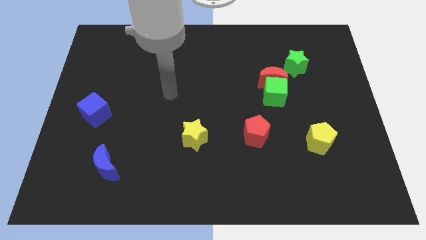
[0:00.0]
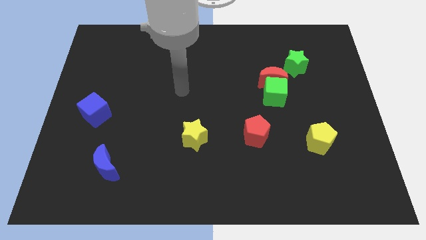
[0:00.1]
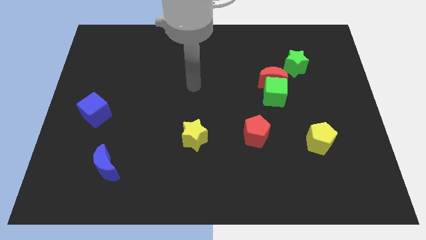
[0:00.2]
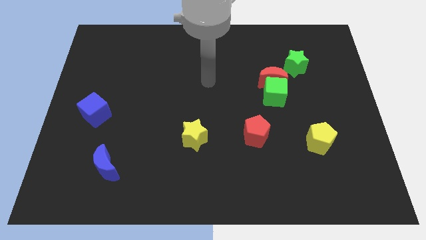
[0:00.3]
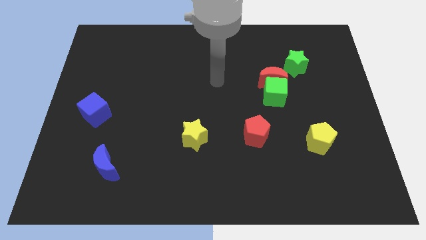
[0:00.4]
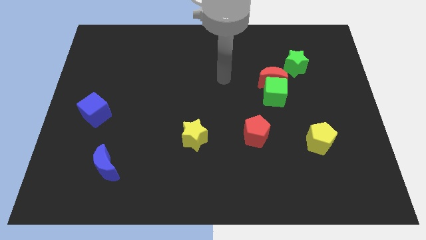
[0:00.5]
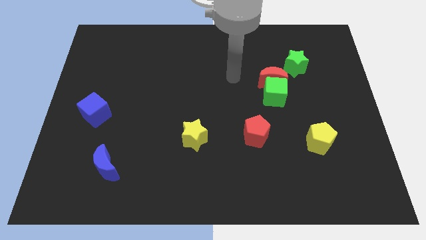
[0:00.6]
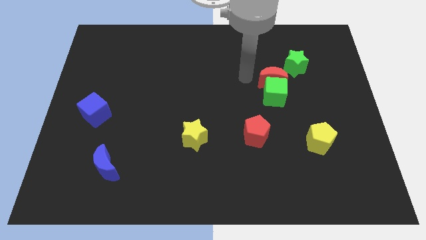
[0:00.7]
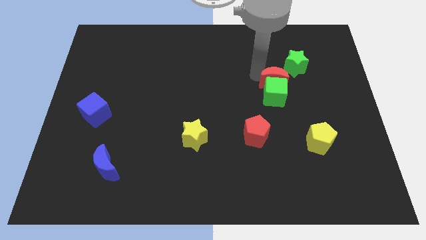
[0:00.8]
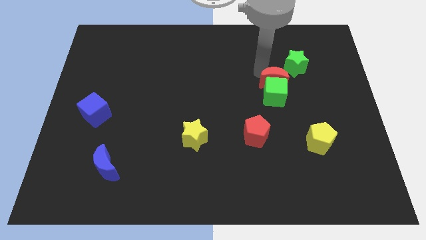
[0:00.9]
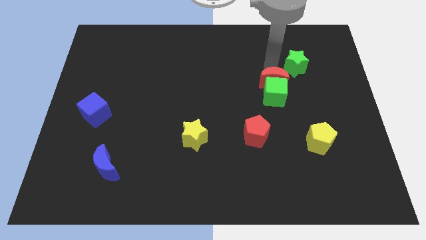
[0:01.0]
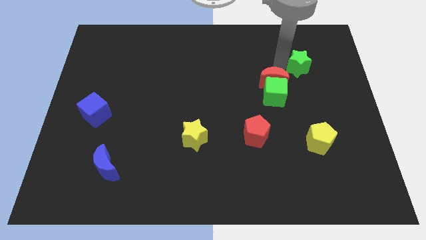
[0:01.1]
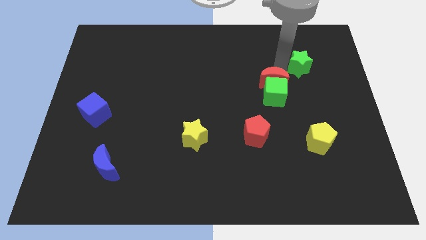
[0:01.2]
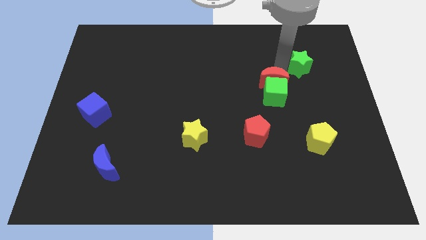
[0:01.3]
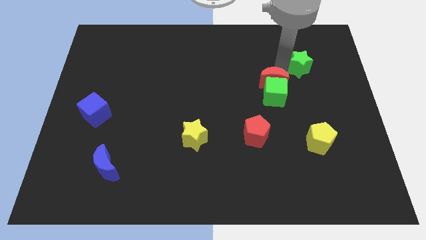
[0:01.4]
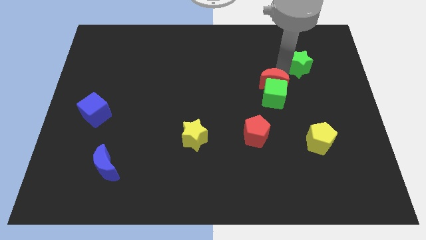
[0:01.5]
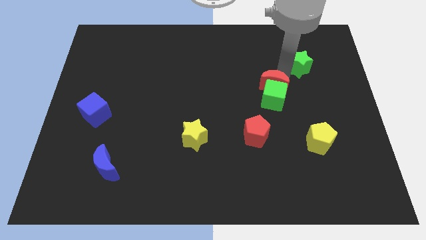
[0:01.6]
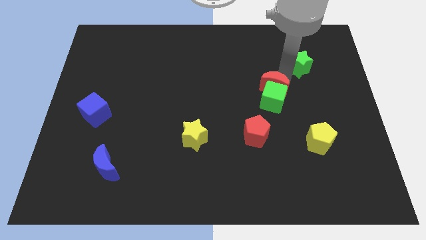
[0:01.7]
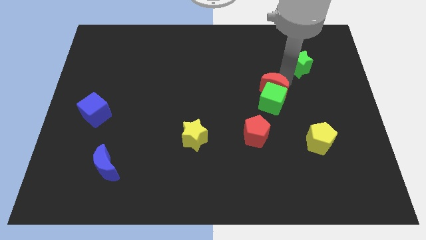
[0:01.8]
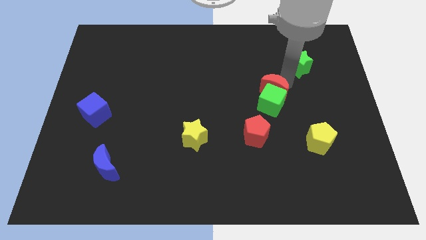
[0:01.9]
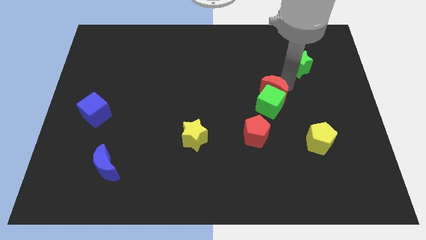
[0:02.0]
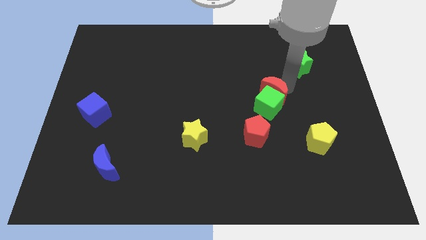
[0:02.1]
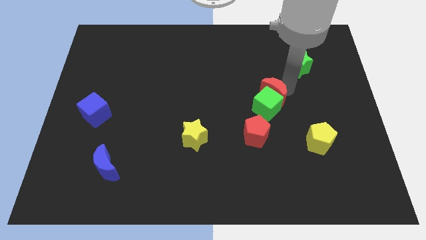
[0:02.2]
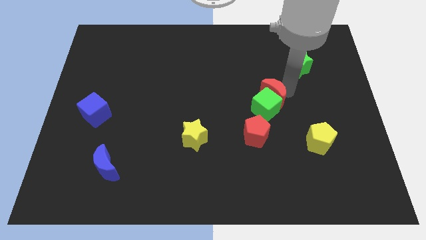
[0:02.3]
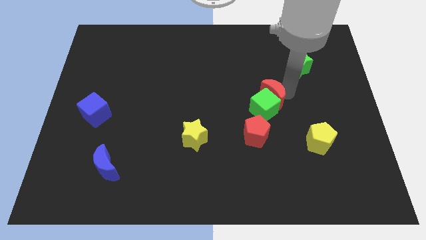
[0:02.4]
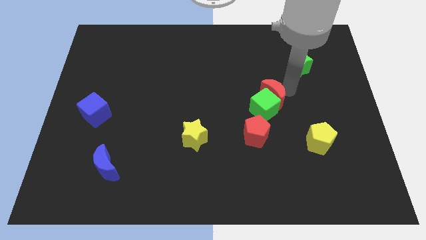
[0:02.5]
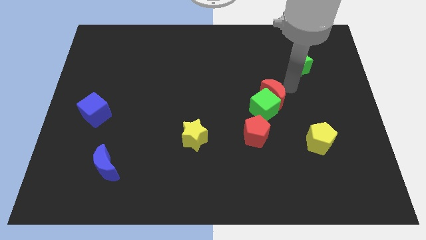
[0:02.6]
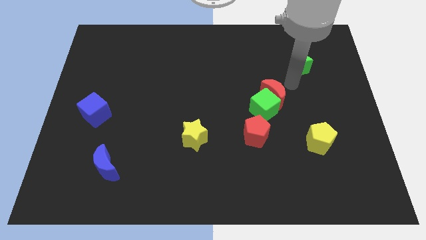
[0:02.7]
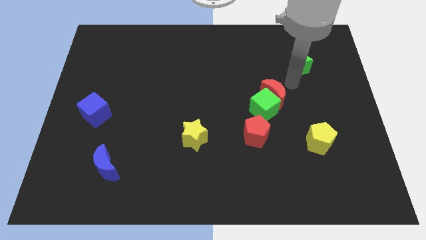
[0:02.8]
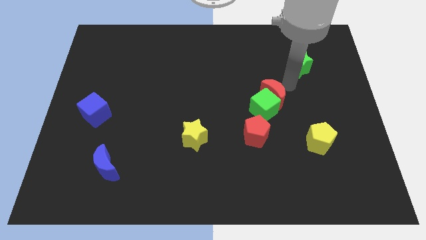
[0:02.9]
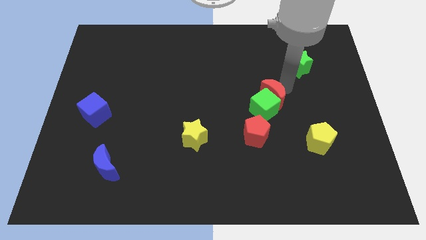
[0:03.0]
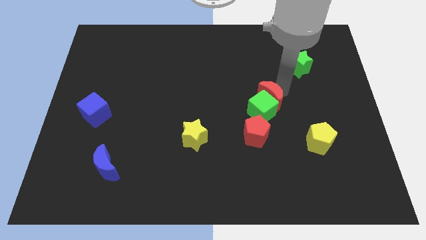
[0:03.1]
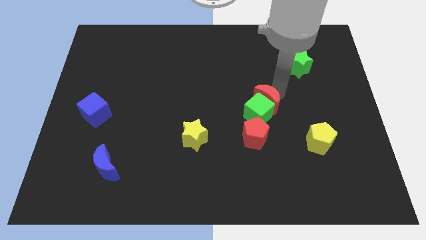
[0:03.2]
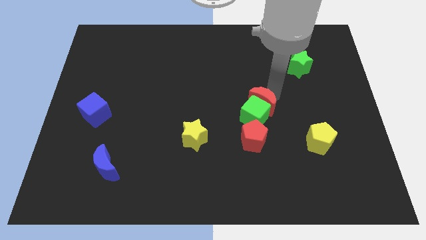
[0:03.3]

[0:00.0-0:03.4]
slightly push the red moon downwards

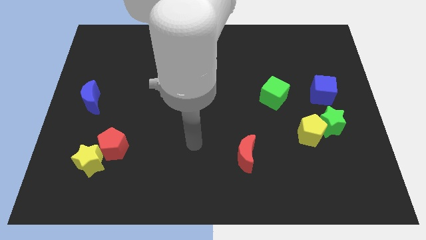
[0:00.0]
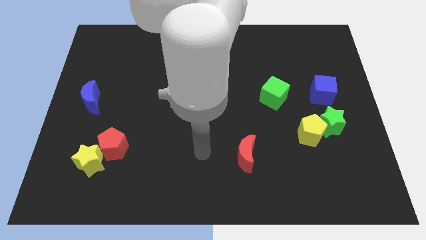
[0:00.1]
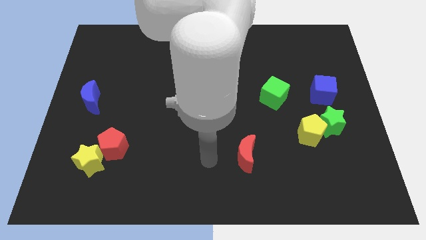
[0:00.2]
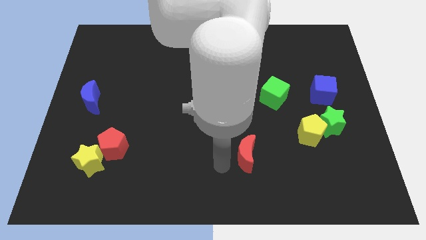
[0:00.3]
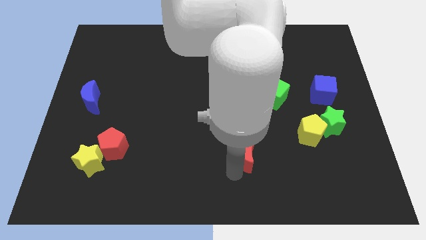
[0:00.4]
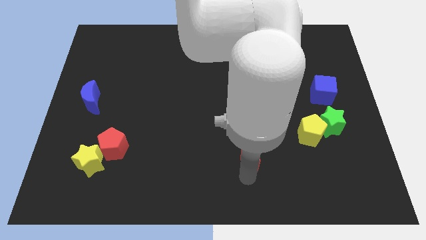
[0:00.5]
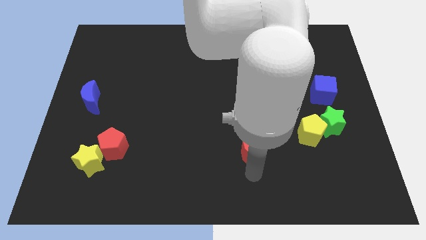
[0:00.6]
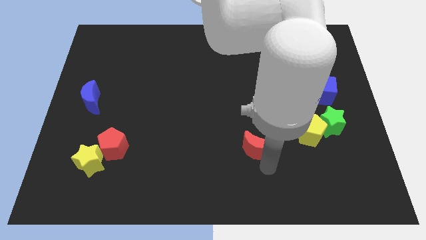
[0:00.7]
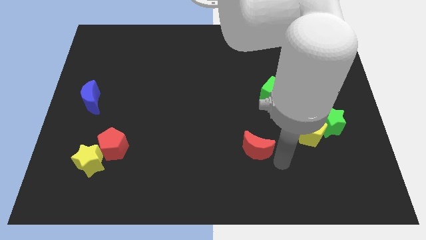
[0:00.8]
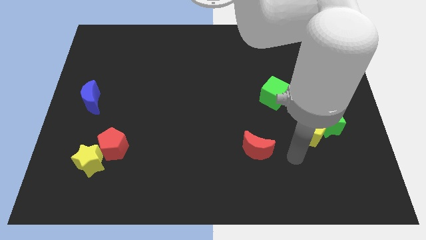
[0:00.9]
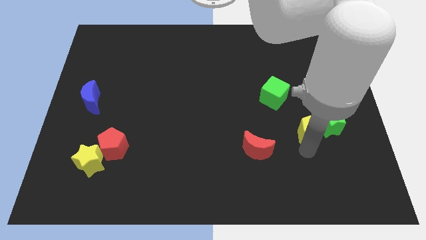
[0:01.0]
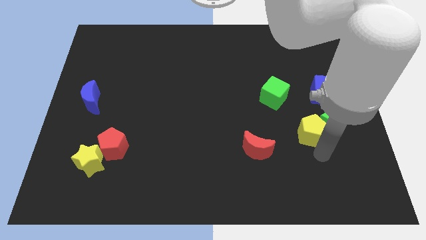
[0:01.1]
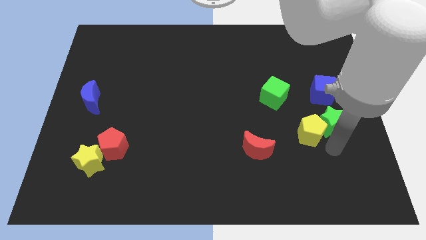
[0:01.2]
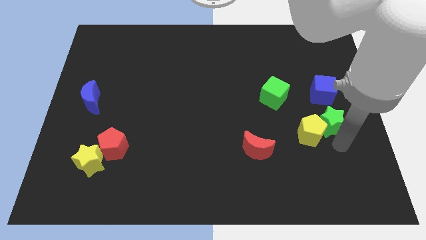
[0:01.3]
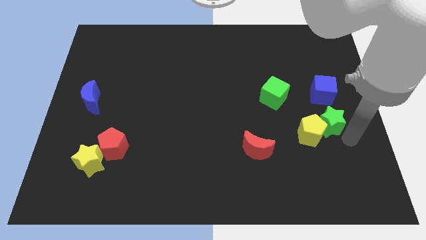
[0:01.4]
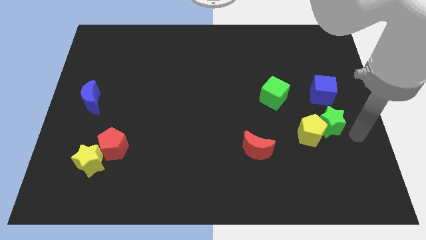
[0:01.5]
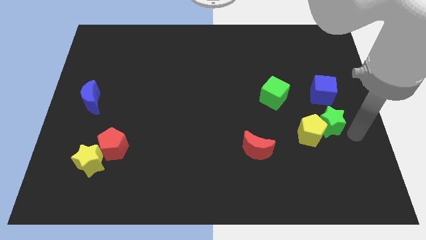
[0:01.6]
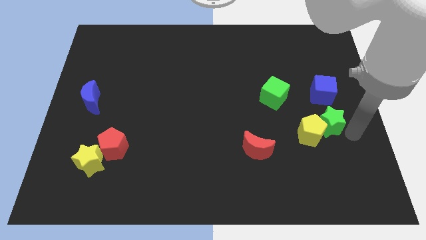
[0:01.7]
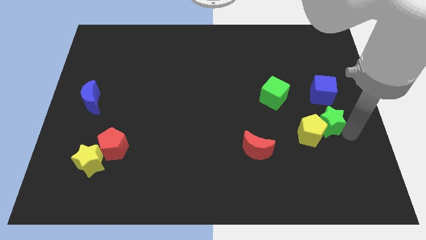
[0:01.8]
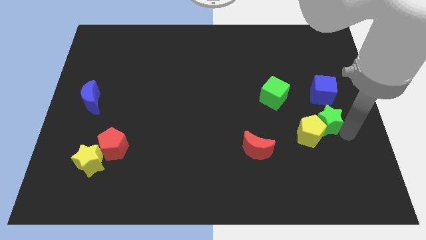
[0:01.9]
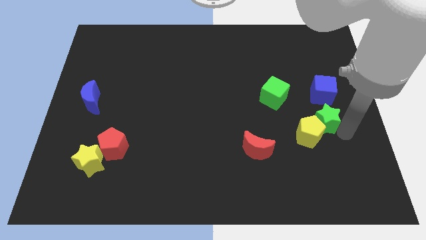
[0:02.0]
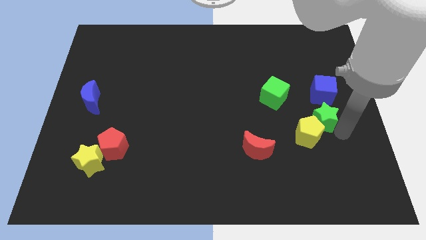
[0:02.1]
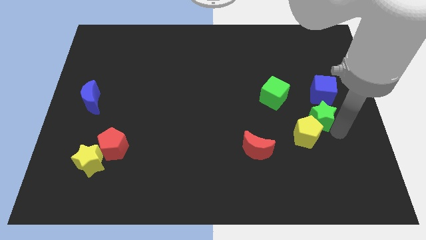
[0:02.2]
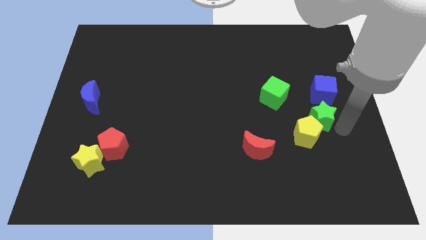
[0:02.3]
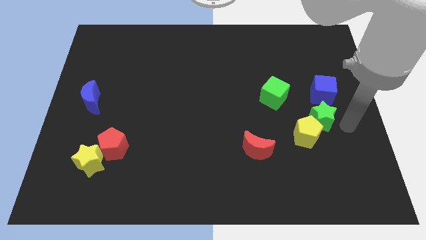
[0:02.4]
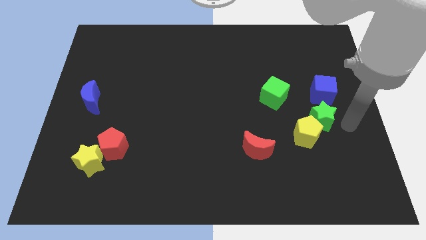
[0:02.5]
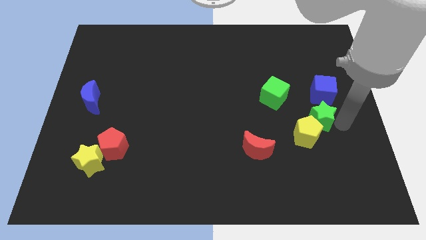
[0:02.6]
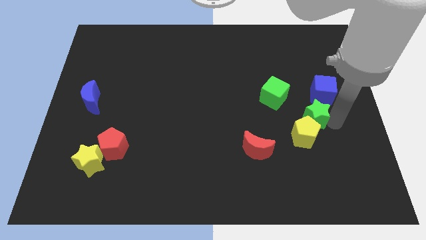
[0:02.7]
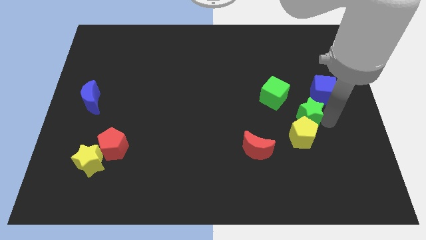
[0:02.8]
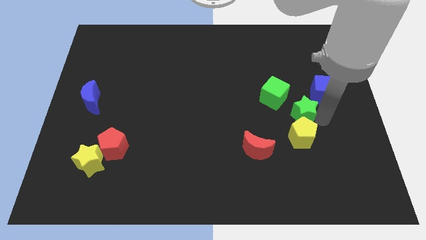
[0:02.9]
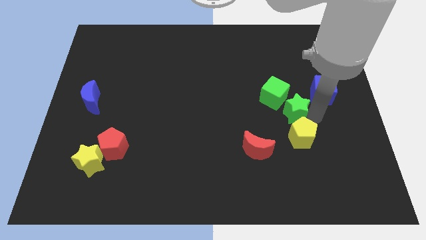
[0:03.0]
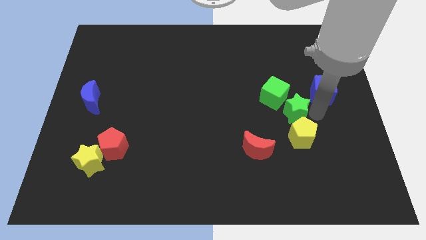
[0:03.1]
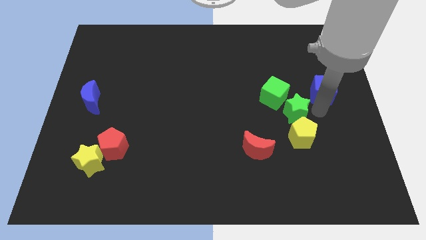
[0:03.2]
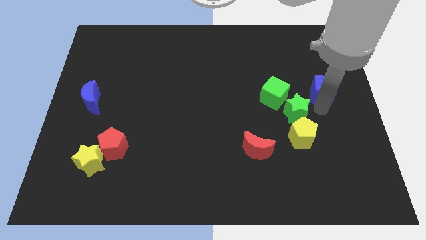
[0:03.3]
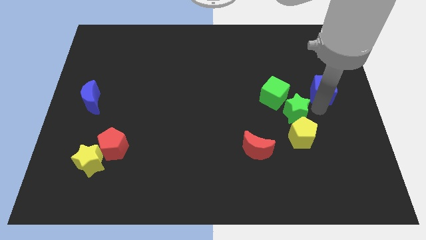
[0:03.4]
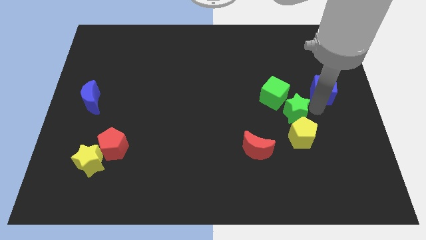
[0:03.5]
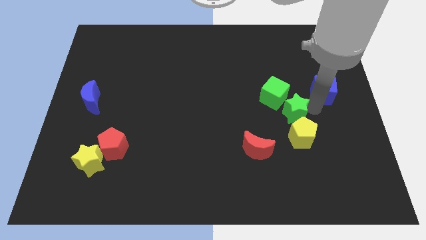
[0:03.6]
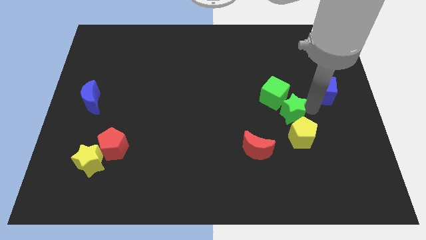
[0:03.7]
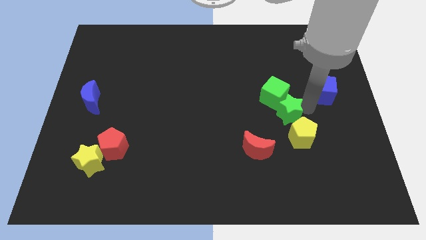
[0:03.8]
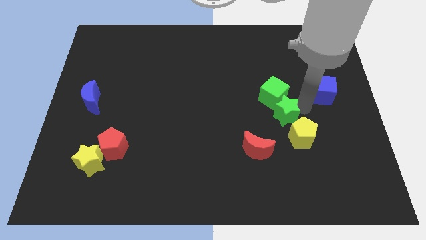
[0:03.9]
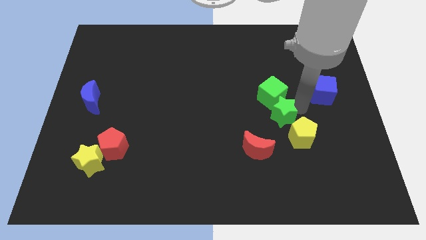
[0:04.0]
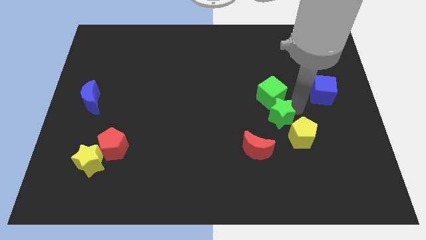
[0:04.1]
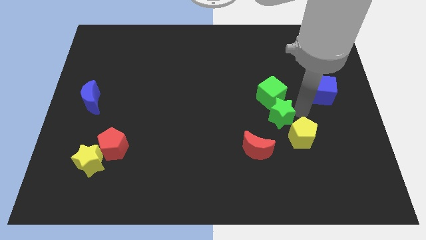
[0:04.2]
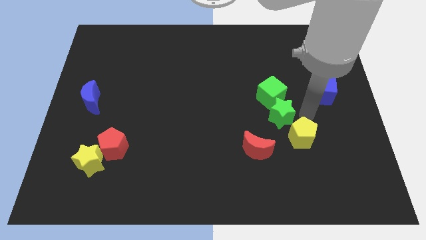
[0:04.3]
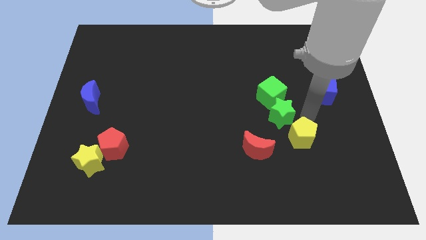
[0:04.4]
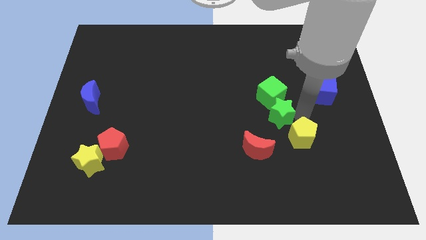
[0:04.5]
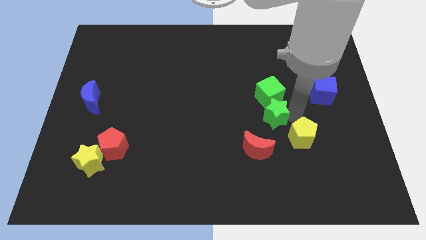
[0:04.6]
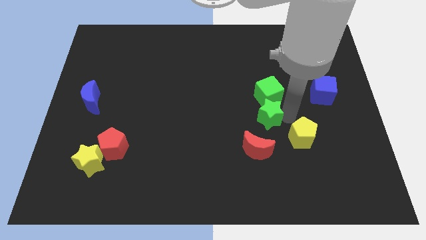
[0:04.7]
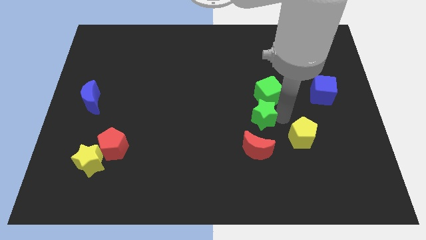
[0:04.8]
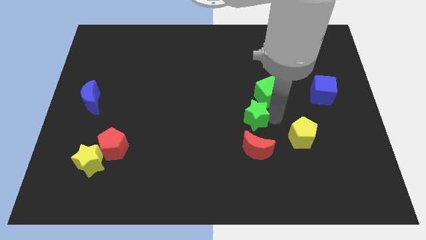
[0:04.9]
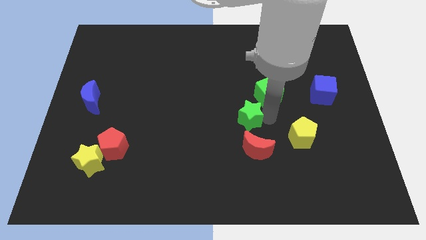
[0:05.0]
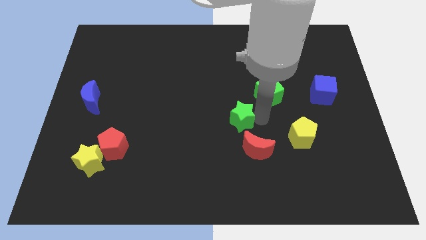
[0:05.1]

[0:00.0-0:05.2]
move the green star to the left
